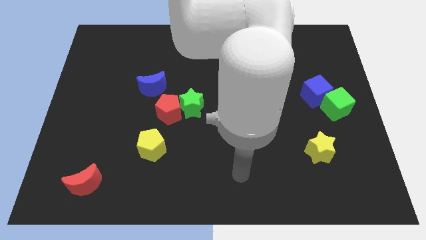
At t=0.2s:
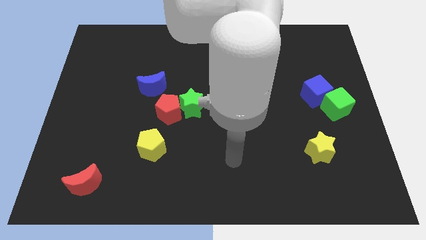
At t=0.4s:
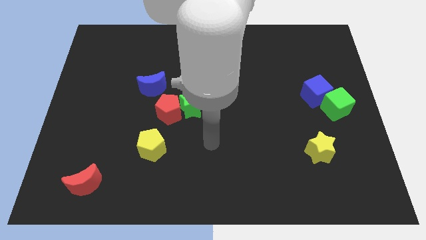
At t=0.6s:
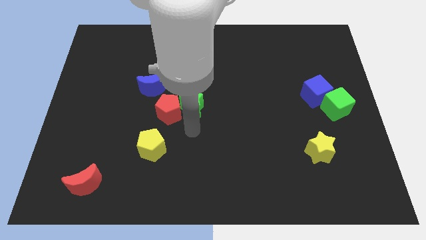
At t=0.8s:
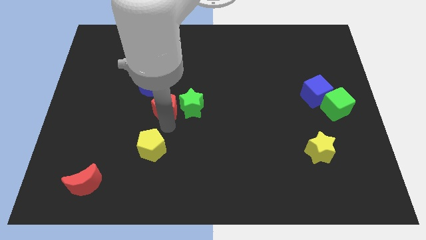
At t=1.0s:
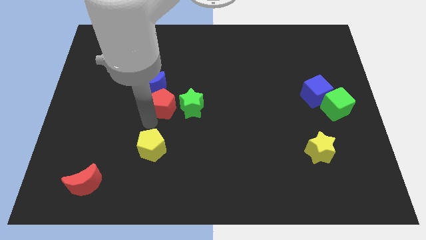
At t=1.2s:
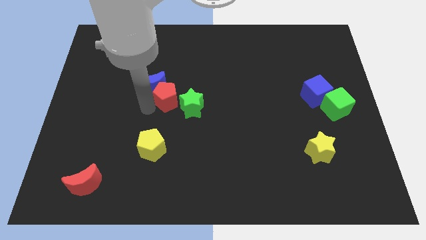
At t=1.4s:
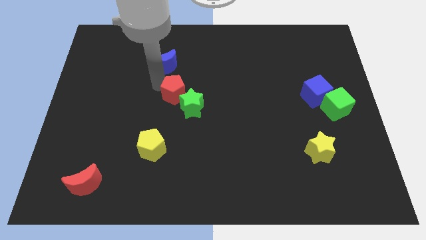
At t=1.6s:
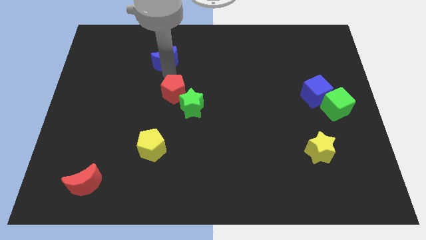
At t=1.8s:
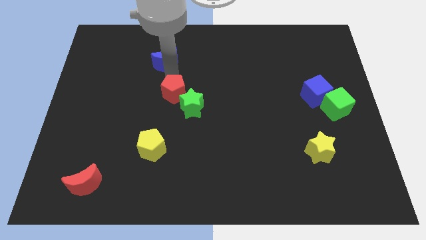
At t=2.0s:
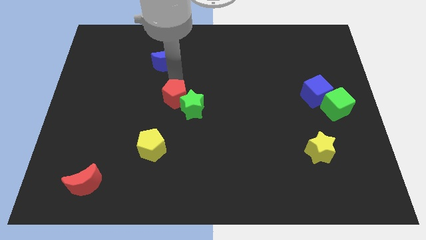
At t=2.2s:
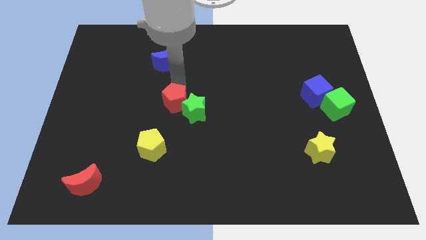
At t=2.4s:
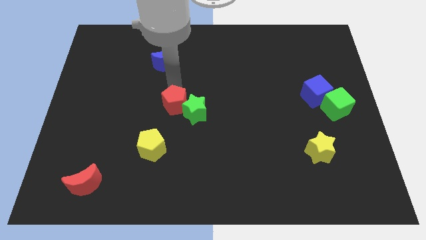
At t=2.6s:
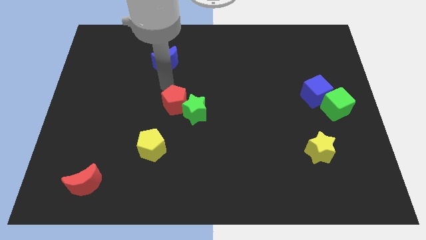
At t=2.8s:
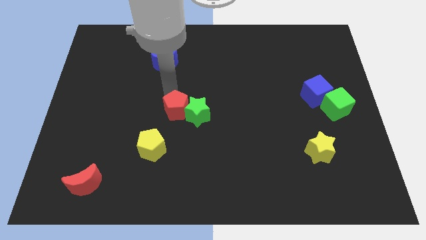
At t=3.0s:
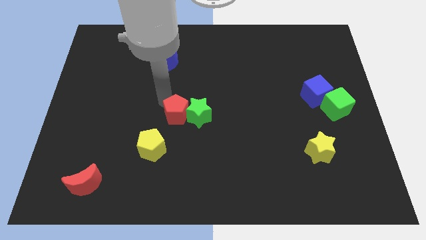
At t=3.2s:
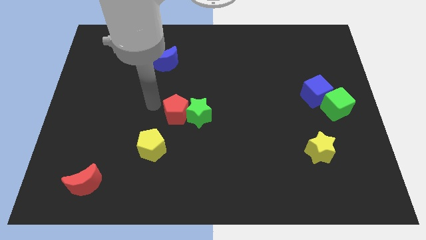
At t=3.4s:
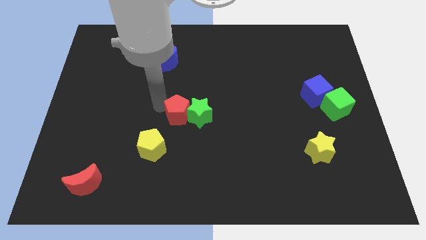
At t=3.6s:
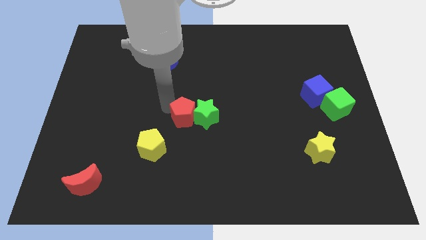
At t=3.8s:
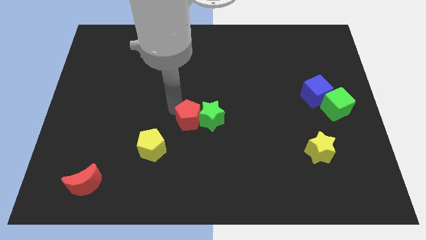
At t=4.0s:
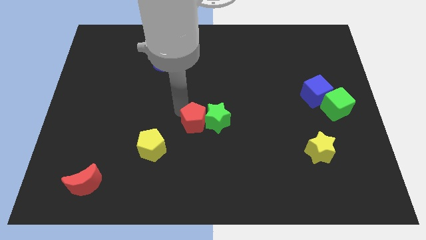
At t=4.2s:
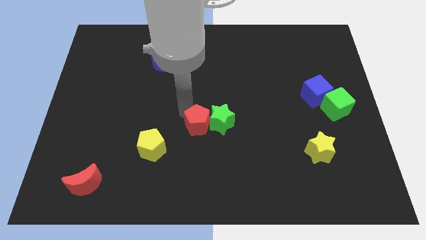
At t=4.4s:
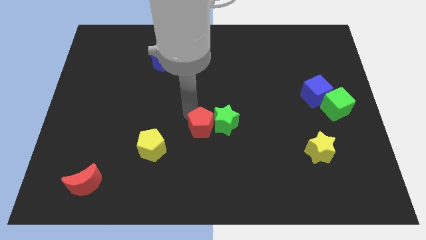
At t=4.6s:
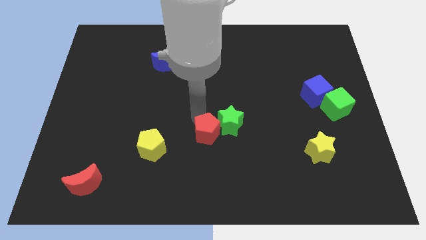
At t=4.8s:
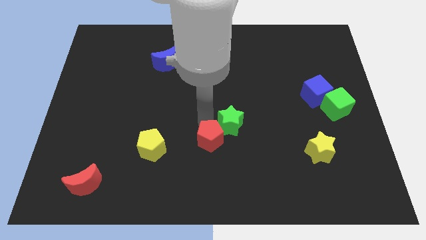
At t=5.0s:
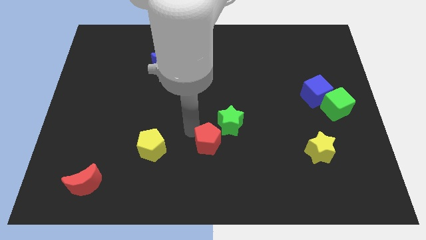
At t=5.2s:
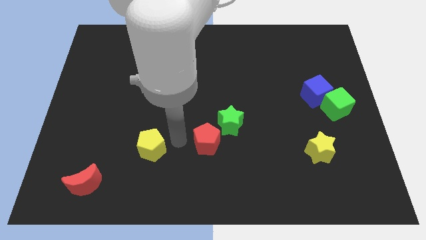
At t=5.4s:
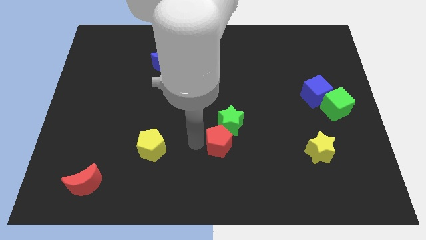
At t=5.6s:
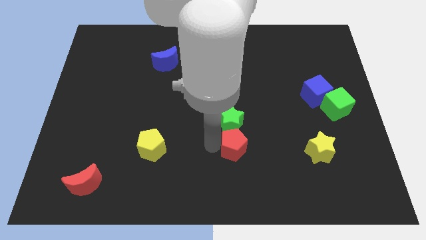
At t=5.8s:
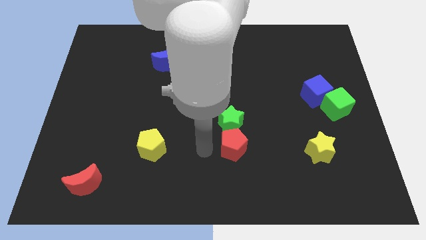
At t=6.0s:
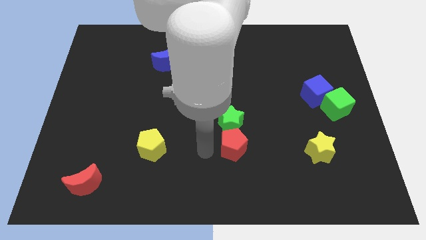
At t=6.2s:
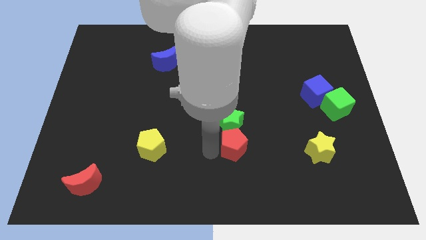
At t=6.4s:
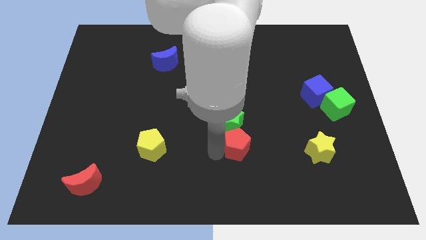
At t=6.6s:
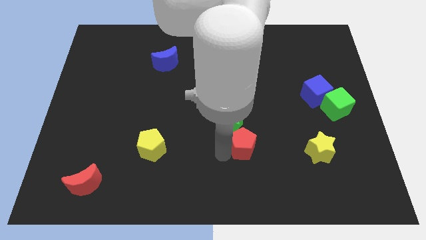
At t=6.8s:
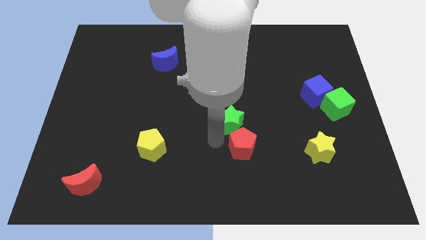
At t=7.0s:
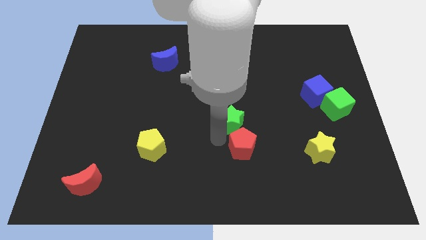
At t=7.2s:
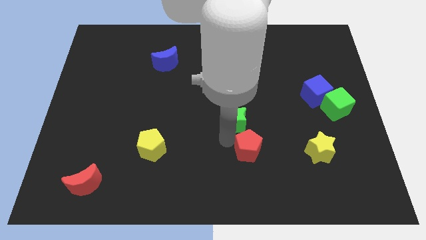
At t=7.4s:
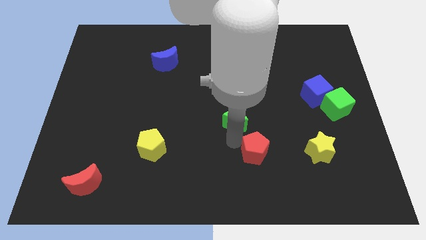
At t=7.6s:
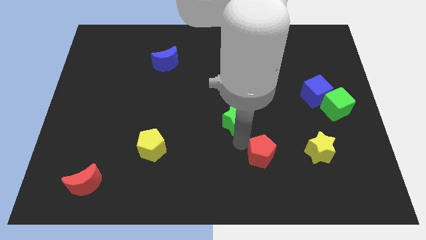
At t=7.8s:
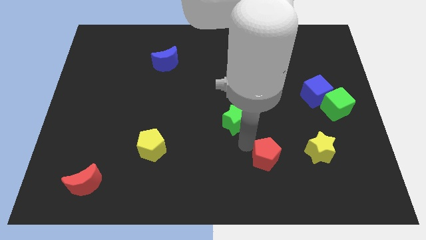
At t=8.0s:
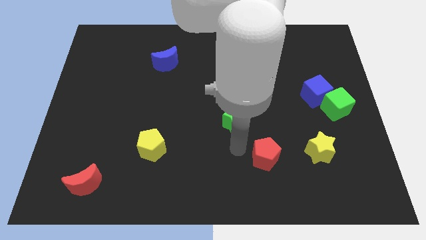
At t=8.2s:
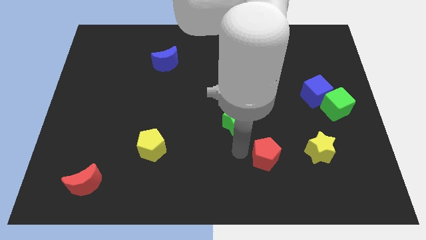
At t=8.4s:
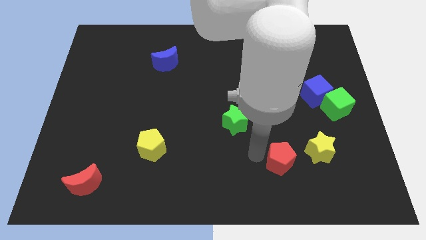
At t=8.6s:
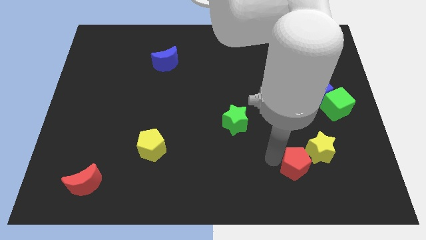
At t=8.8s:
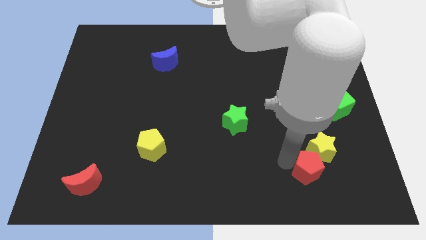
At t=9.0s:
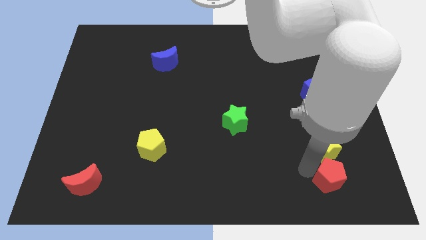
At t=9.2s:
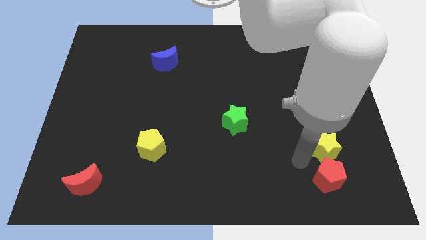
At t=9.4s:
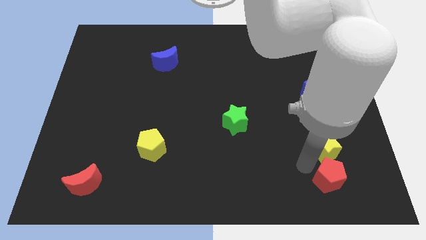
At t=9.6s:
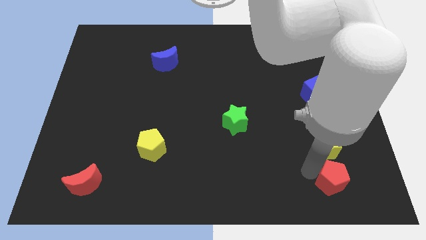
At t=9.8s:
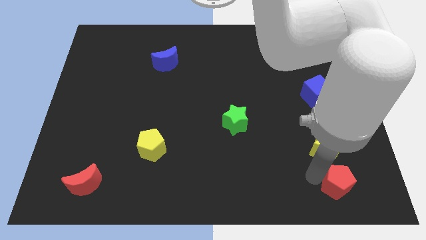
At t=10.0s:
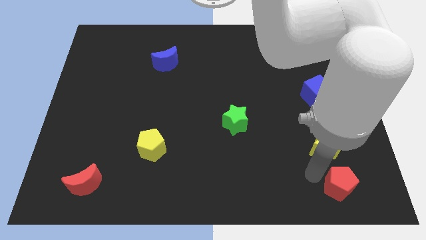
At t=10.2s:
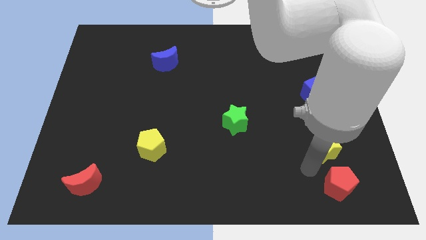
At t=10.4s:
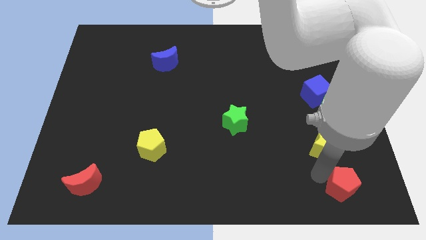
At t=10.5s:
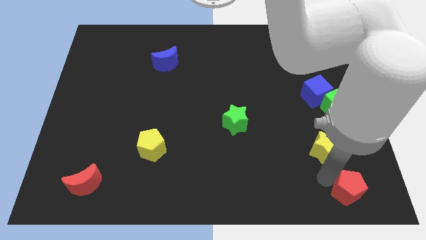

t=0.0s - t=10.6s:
push the red pentagon to the lower right corner

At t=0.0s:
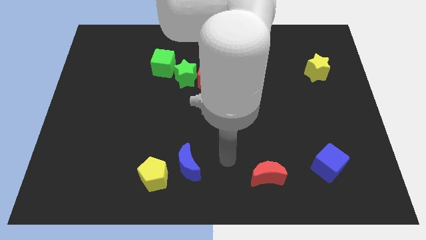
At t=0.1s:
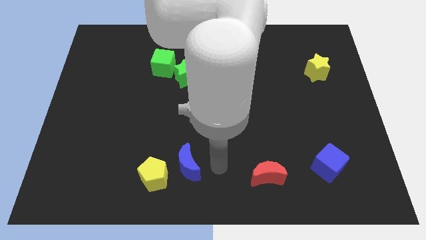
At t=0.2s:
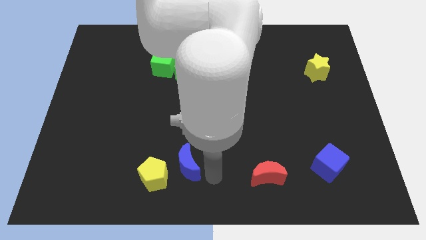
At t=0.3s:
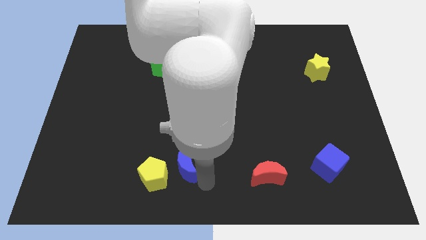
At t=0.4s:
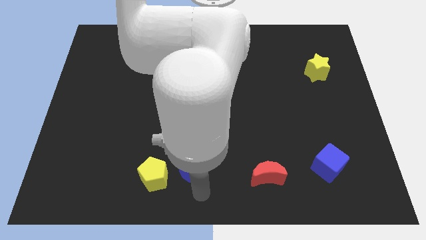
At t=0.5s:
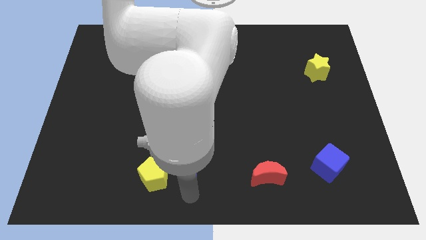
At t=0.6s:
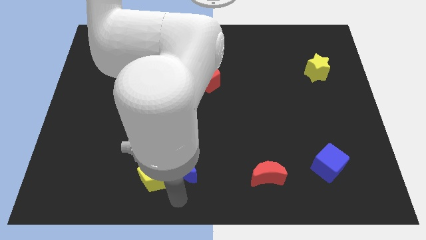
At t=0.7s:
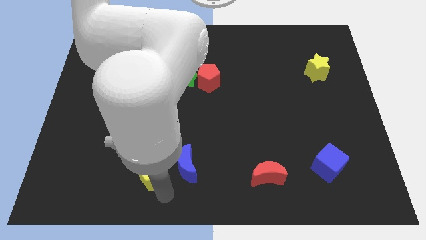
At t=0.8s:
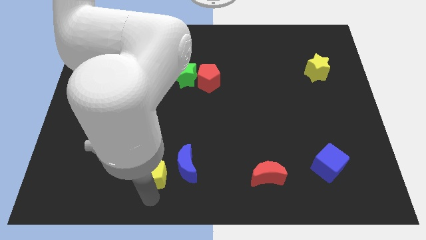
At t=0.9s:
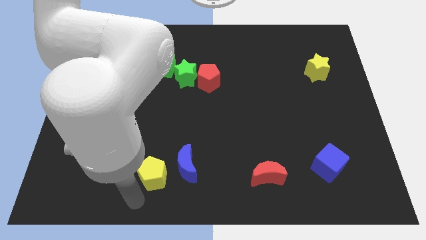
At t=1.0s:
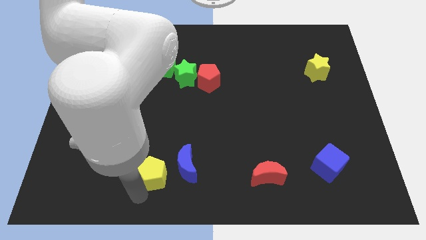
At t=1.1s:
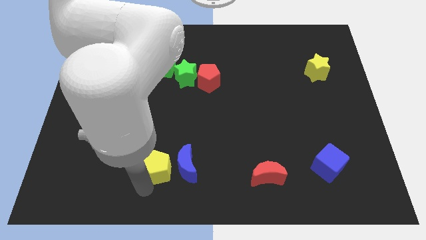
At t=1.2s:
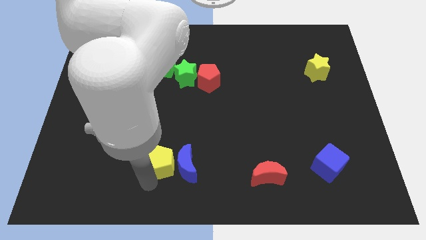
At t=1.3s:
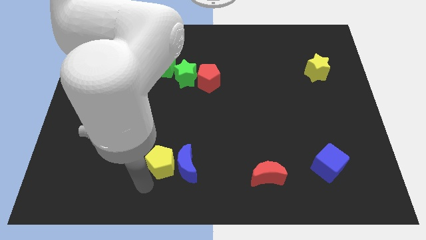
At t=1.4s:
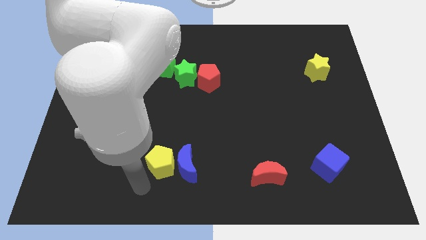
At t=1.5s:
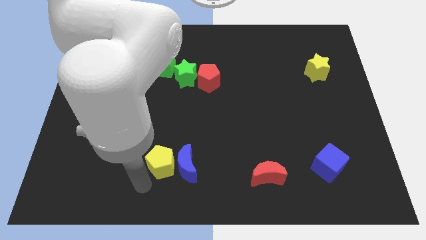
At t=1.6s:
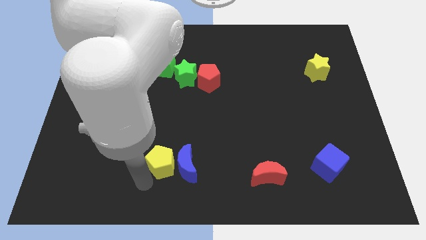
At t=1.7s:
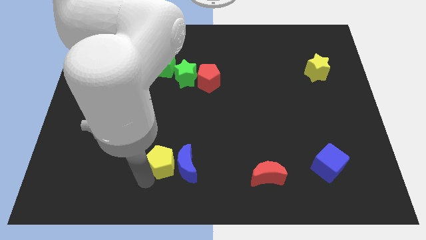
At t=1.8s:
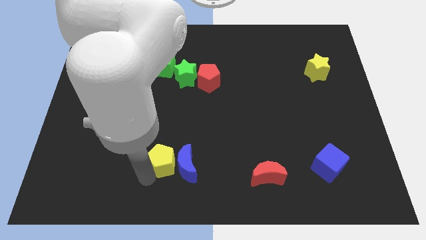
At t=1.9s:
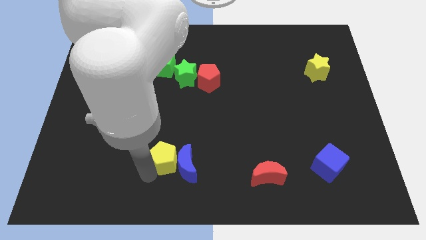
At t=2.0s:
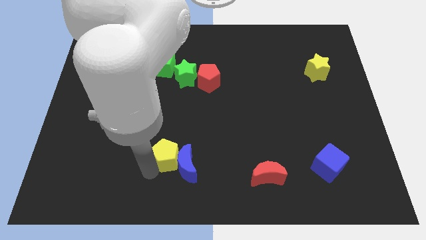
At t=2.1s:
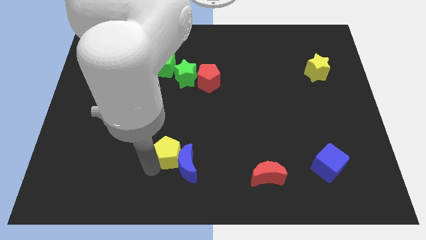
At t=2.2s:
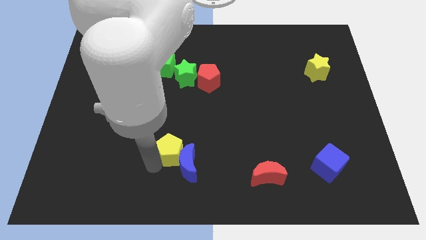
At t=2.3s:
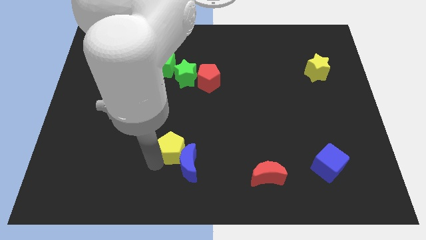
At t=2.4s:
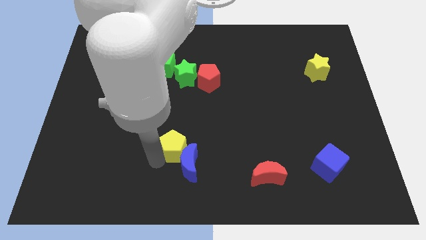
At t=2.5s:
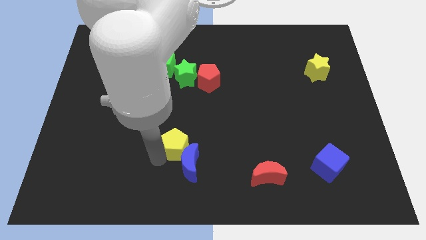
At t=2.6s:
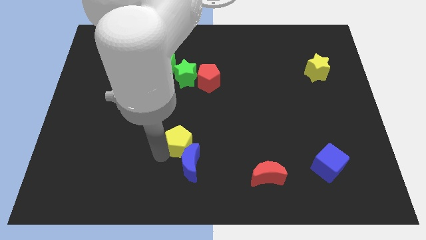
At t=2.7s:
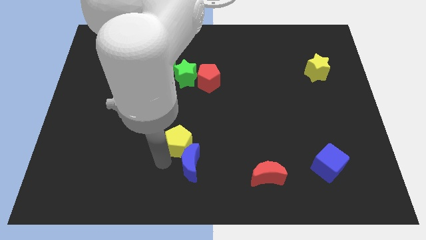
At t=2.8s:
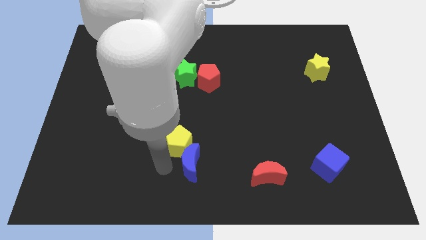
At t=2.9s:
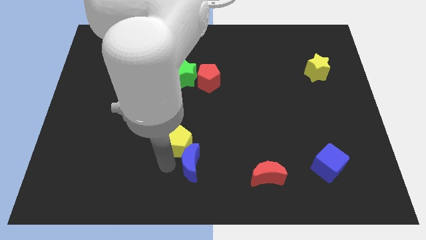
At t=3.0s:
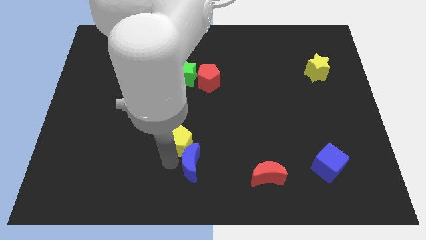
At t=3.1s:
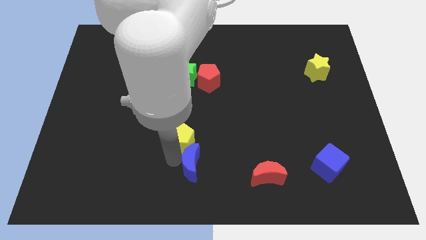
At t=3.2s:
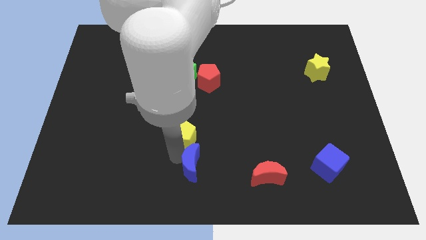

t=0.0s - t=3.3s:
push the yellow pentagon to the center of the board
